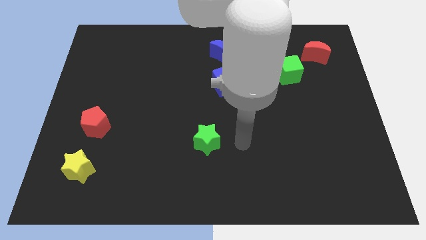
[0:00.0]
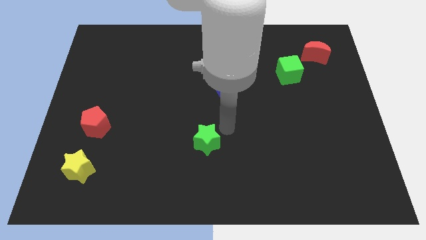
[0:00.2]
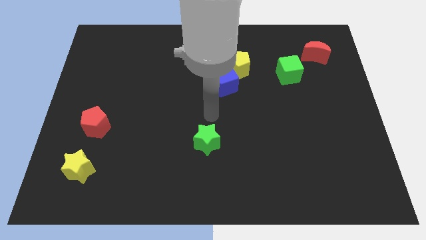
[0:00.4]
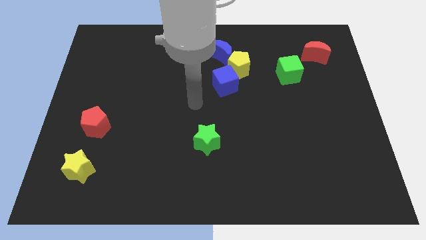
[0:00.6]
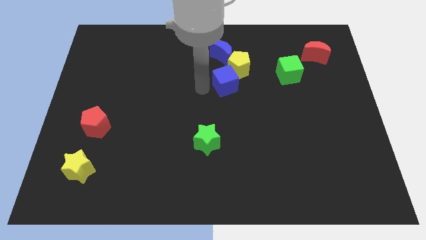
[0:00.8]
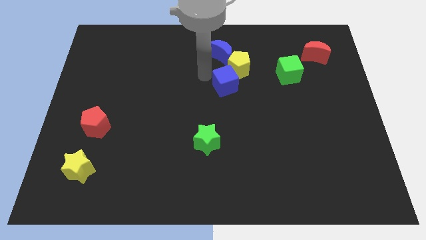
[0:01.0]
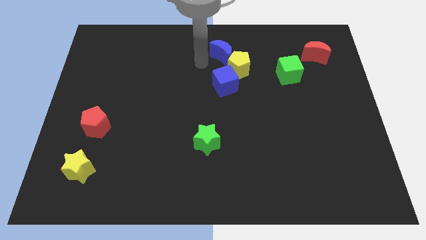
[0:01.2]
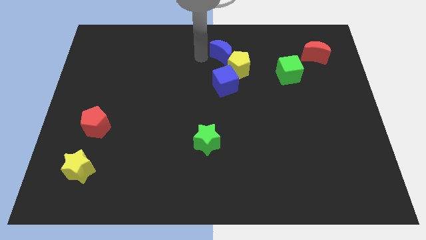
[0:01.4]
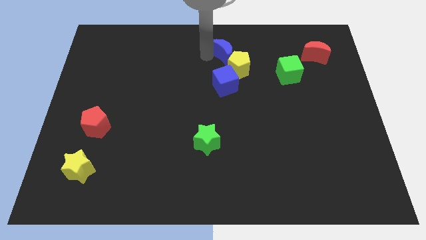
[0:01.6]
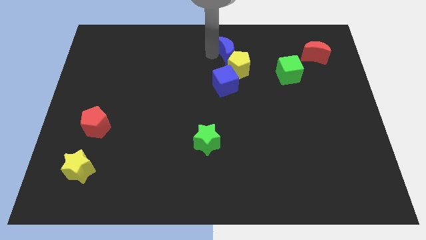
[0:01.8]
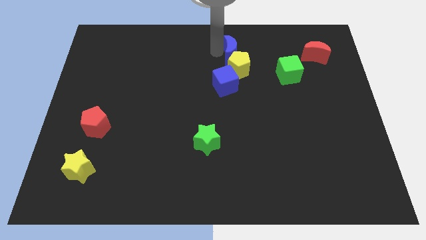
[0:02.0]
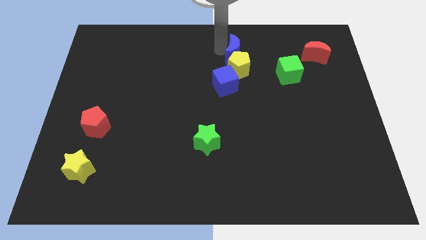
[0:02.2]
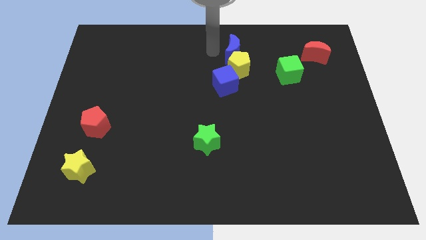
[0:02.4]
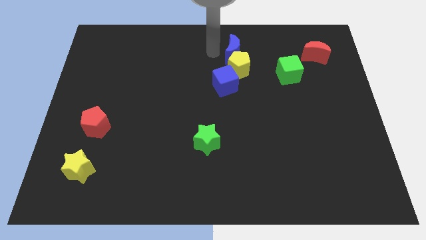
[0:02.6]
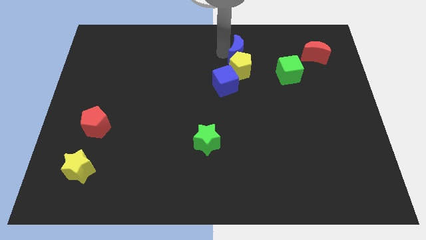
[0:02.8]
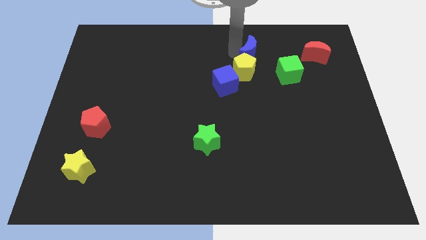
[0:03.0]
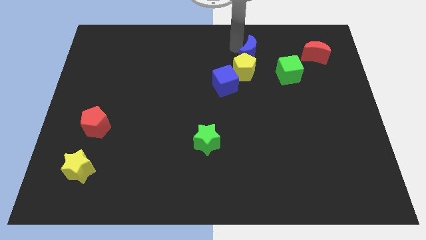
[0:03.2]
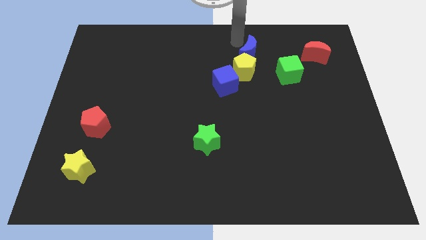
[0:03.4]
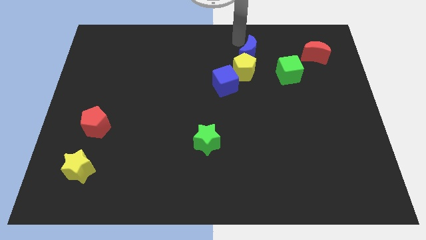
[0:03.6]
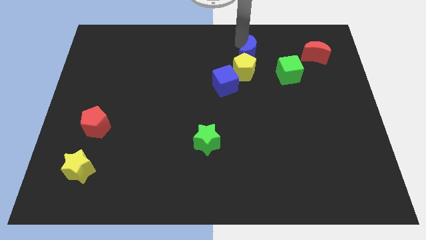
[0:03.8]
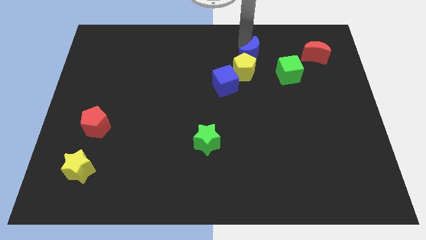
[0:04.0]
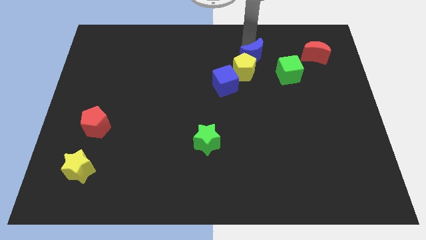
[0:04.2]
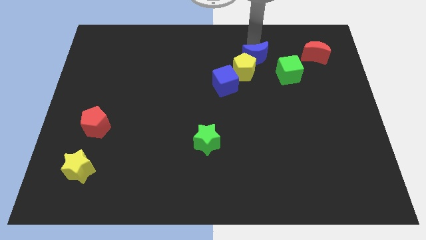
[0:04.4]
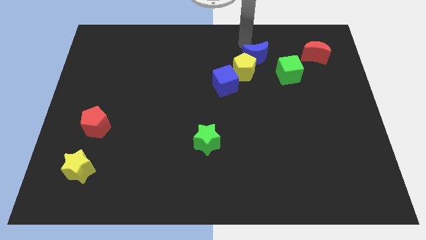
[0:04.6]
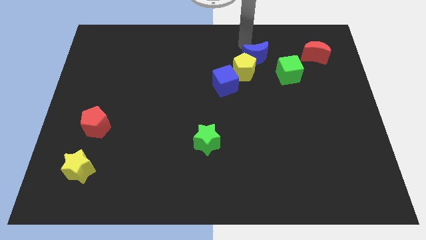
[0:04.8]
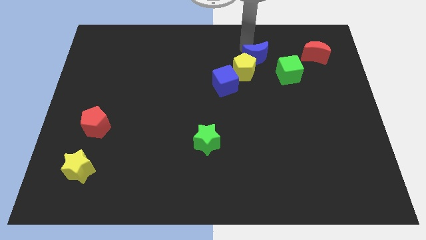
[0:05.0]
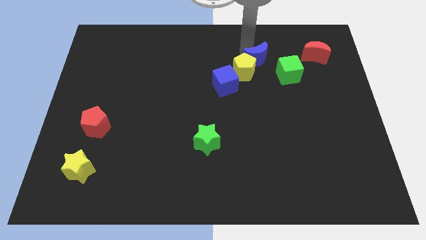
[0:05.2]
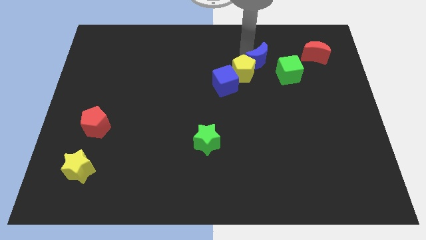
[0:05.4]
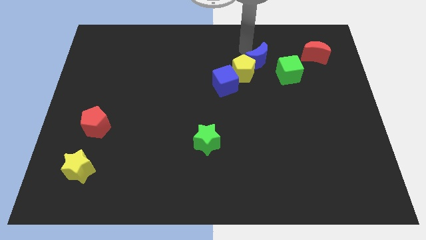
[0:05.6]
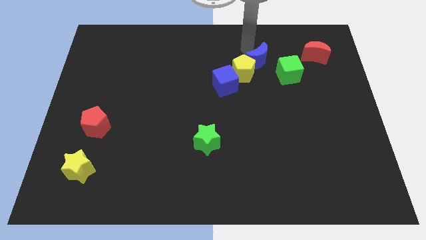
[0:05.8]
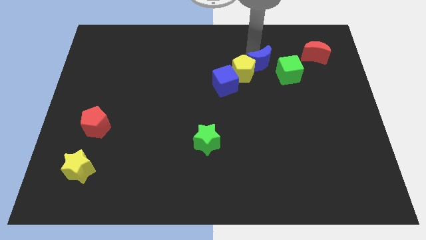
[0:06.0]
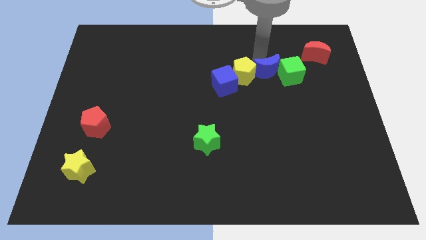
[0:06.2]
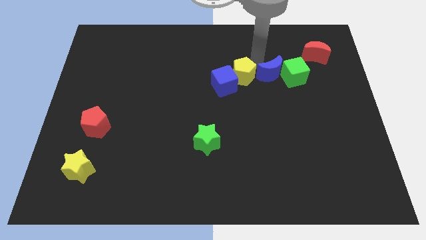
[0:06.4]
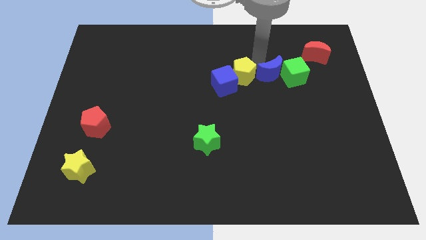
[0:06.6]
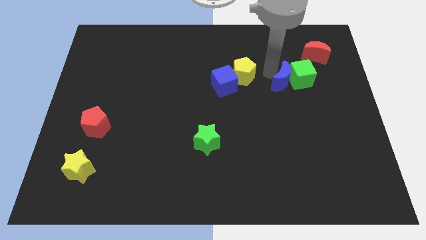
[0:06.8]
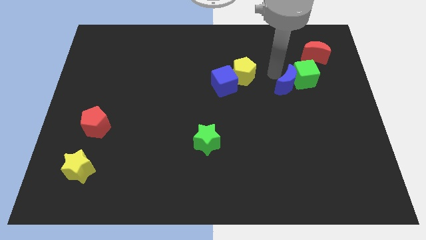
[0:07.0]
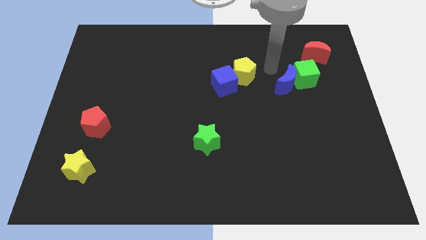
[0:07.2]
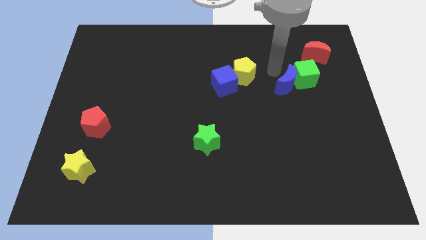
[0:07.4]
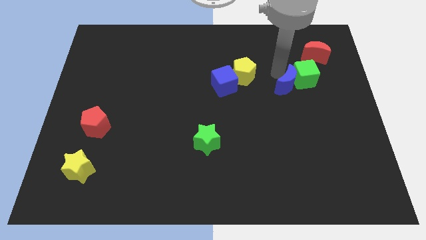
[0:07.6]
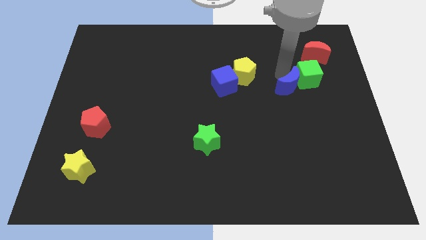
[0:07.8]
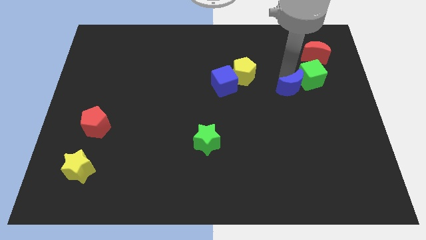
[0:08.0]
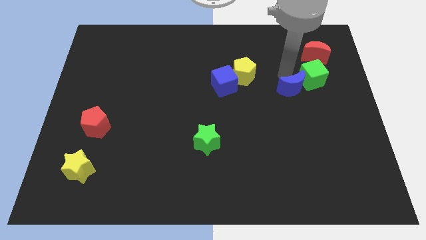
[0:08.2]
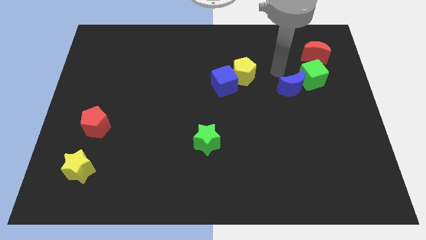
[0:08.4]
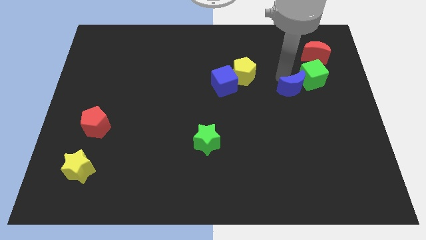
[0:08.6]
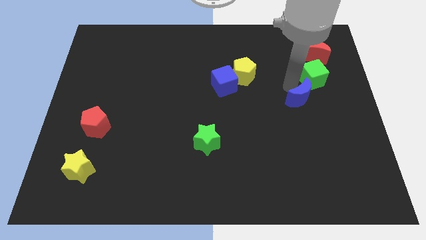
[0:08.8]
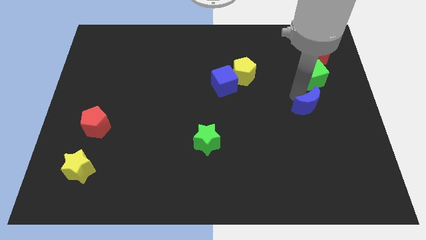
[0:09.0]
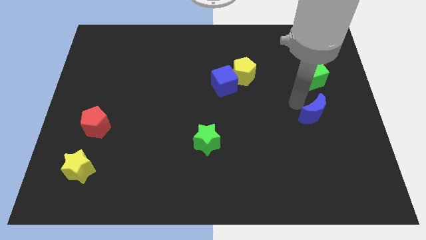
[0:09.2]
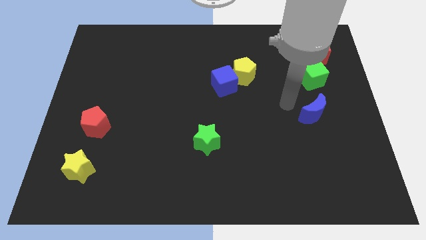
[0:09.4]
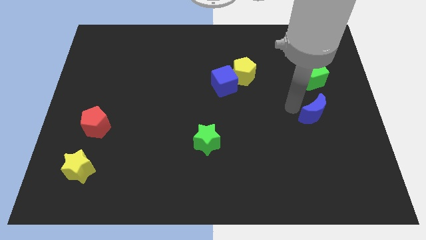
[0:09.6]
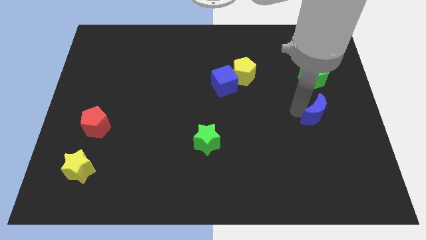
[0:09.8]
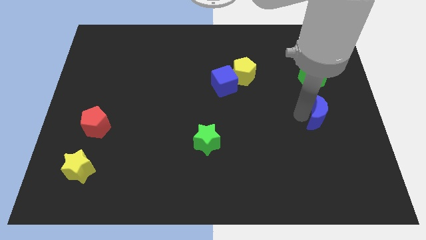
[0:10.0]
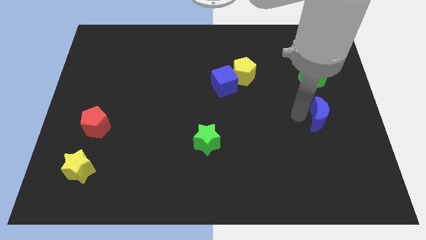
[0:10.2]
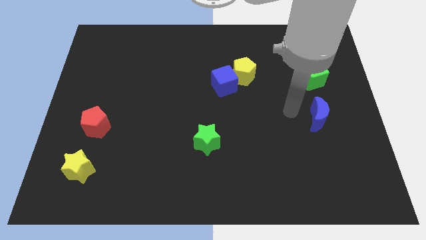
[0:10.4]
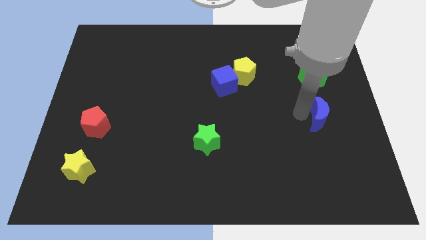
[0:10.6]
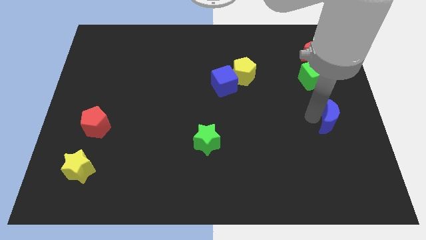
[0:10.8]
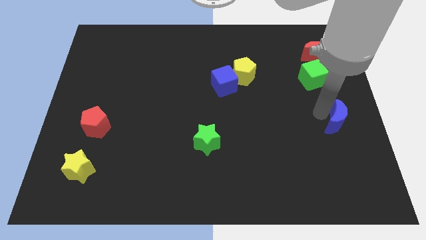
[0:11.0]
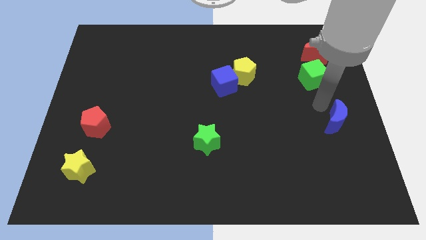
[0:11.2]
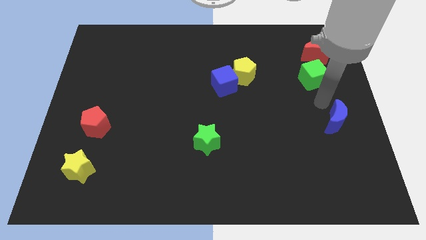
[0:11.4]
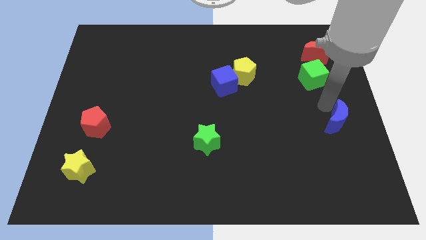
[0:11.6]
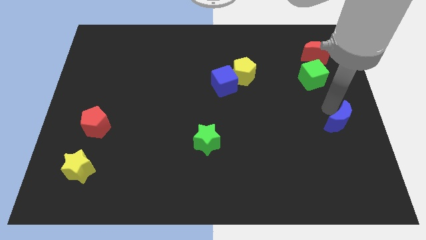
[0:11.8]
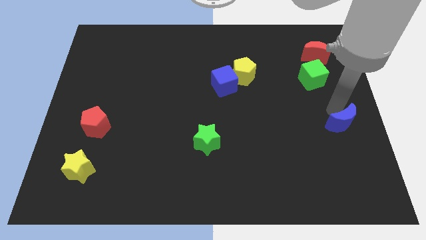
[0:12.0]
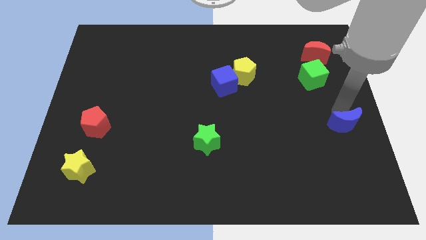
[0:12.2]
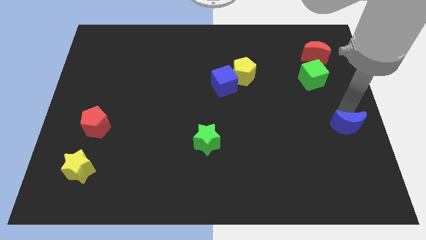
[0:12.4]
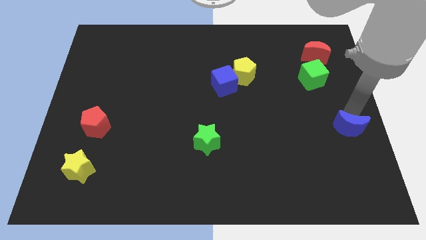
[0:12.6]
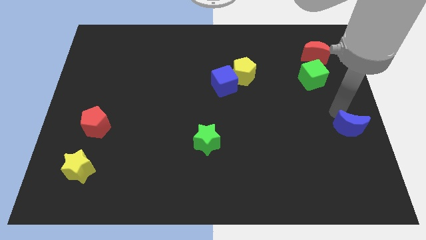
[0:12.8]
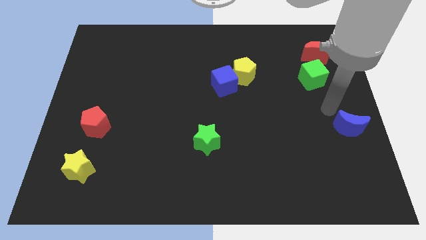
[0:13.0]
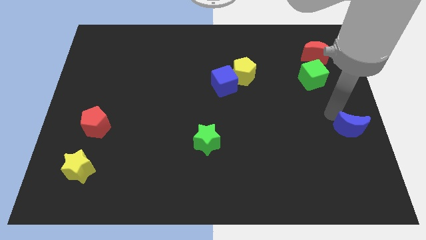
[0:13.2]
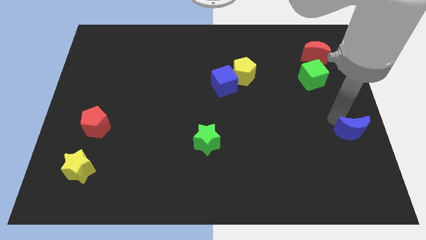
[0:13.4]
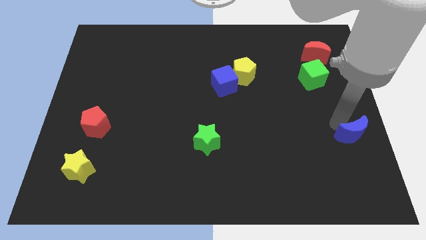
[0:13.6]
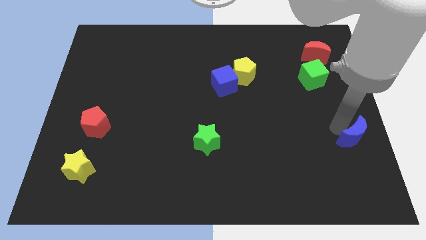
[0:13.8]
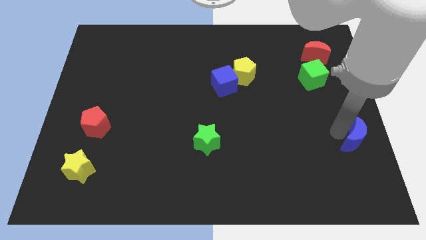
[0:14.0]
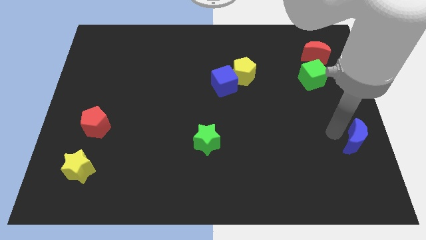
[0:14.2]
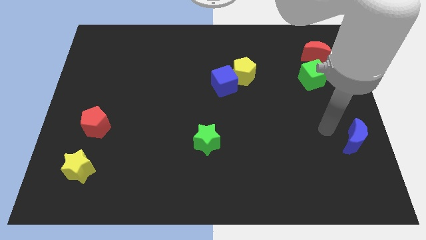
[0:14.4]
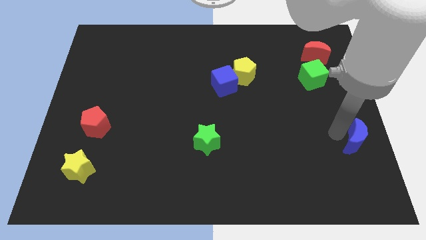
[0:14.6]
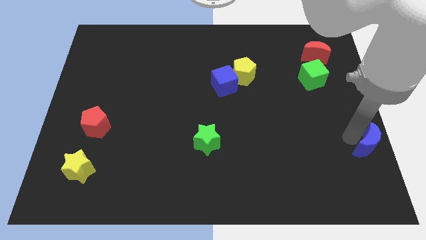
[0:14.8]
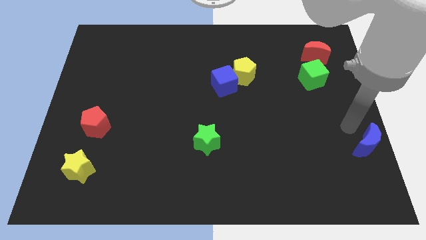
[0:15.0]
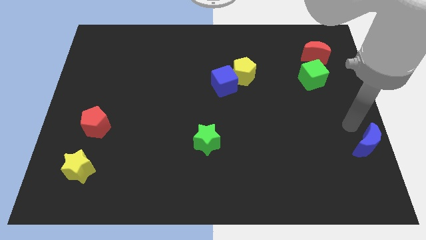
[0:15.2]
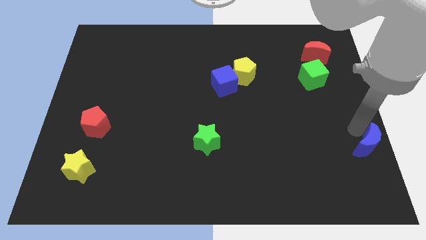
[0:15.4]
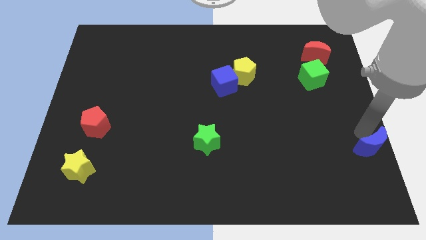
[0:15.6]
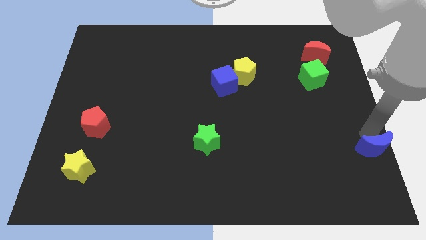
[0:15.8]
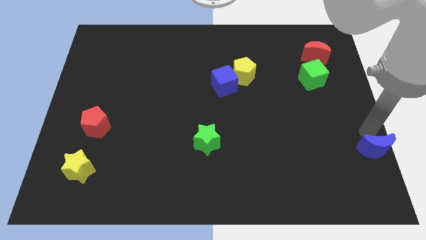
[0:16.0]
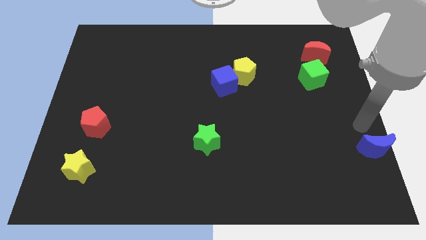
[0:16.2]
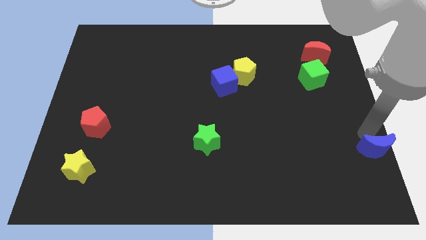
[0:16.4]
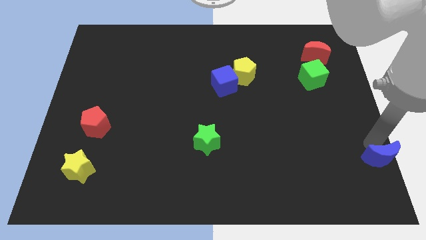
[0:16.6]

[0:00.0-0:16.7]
slide the blue moon to the bottom right of the board
